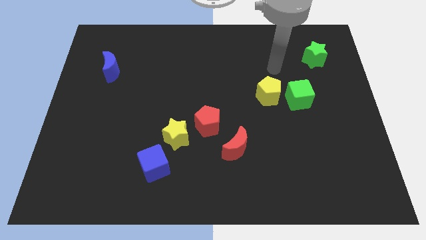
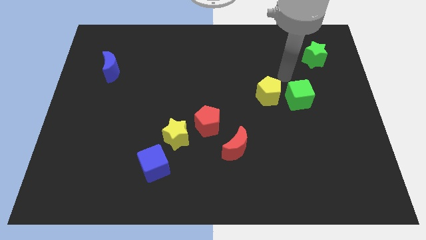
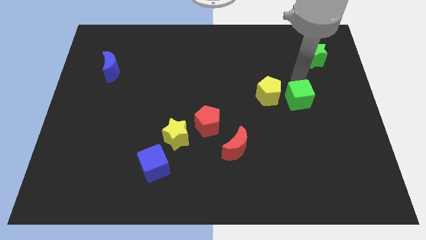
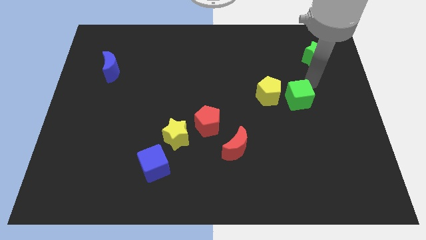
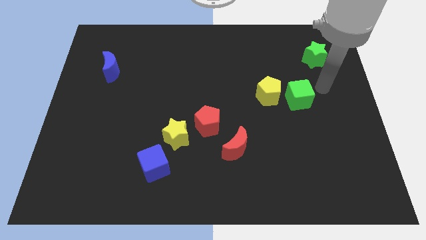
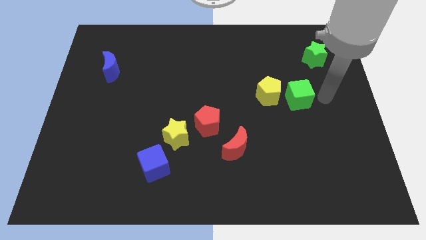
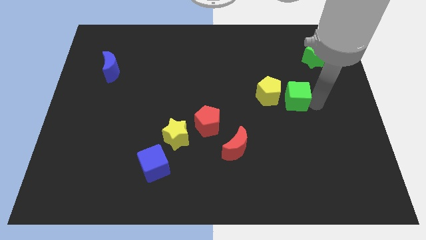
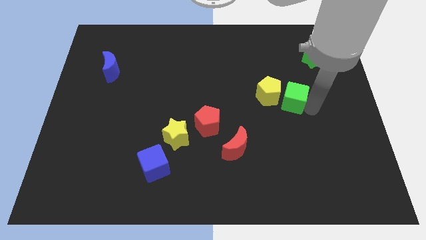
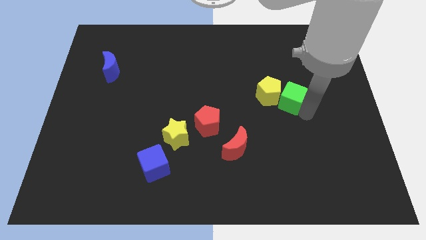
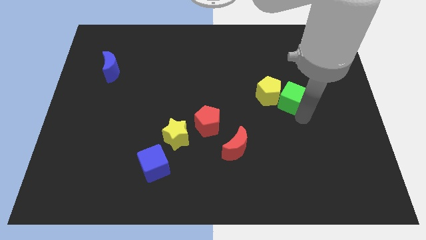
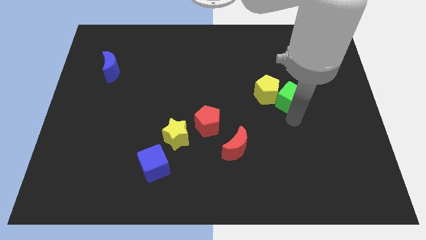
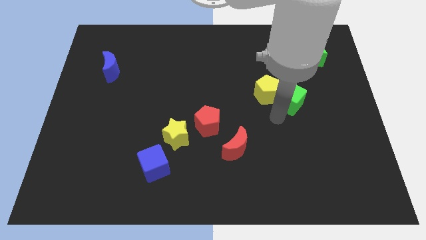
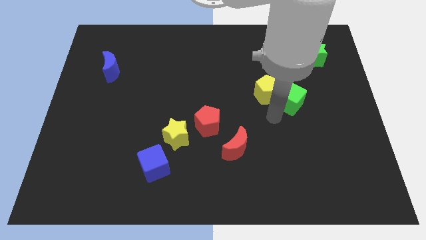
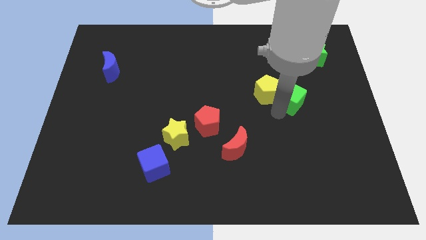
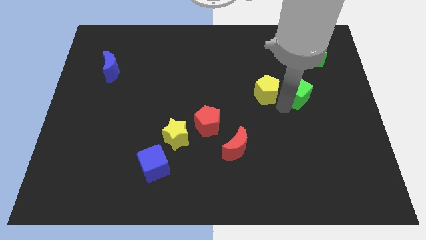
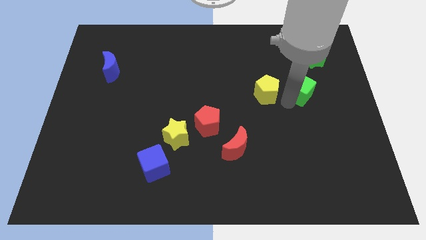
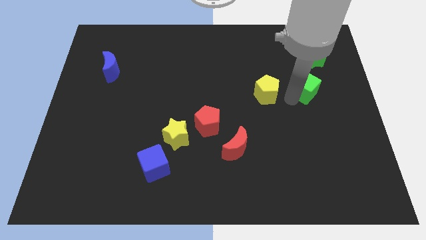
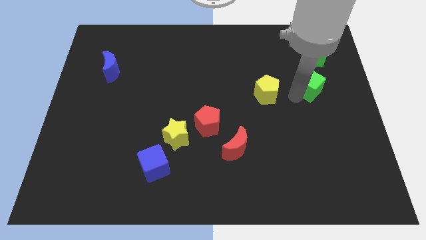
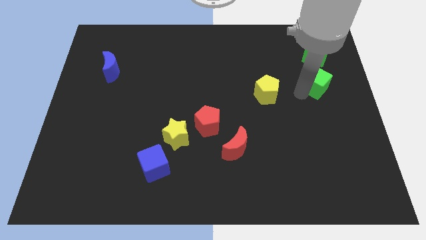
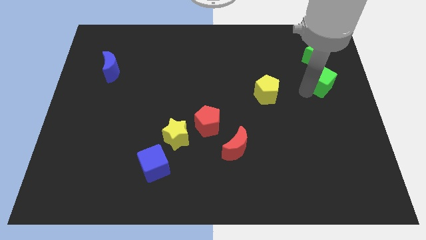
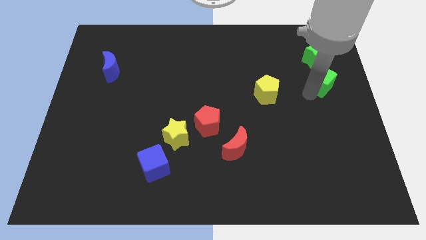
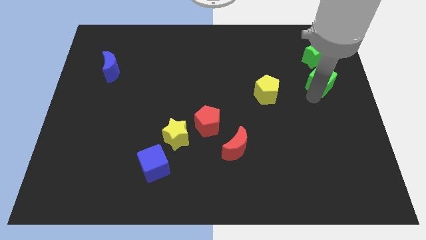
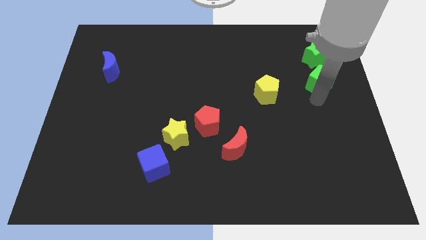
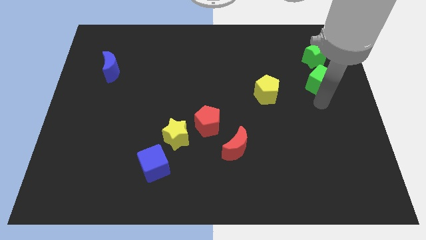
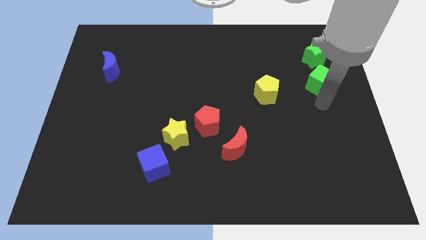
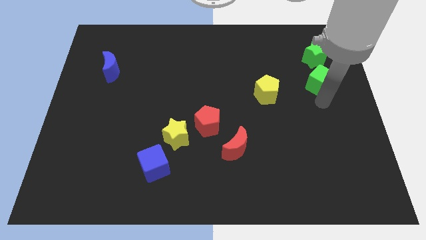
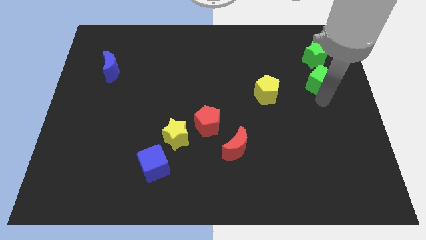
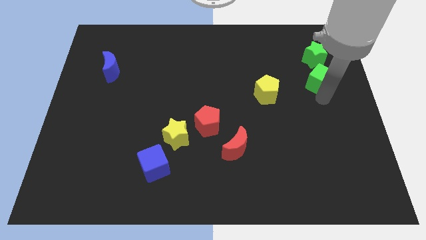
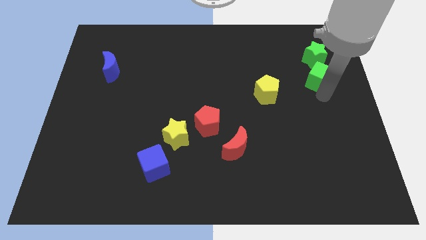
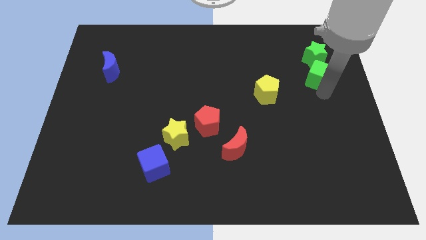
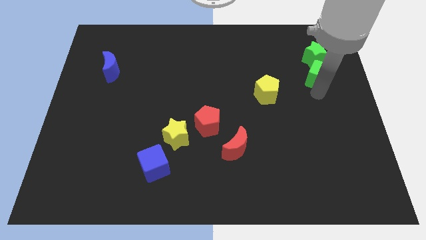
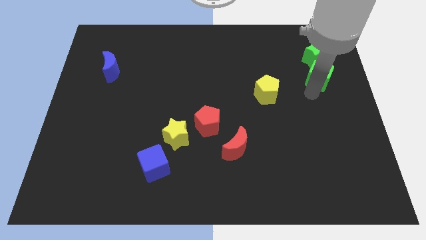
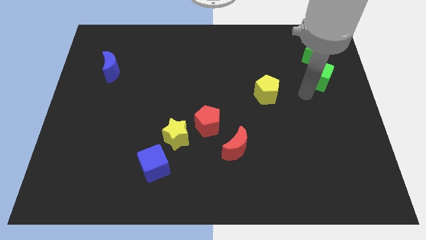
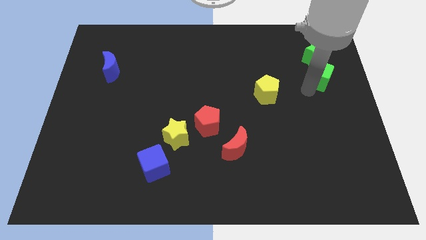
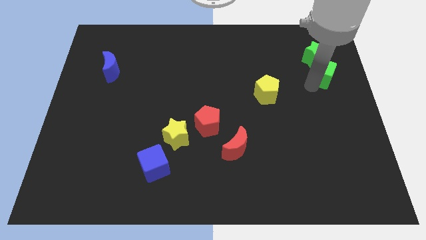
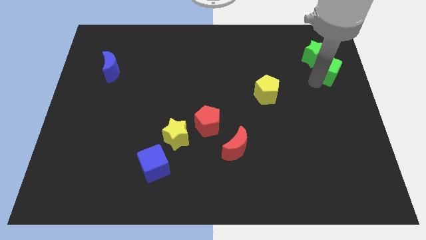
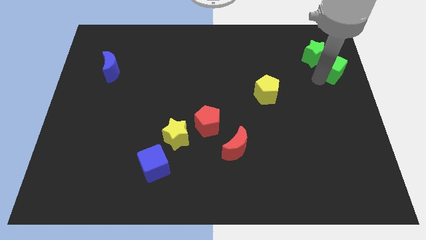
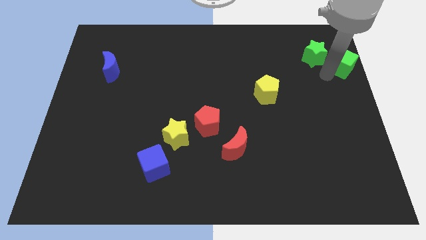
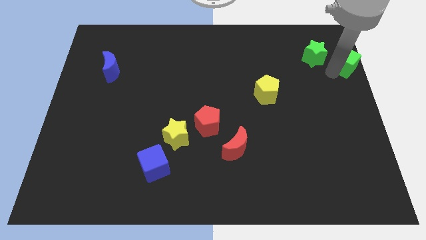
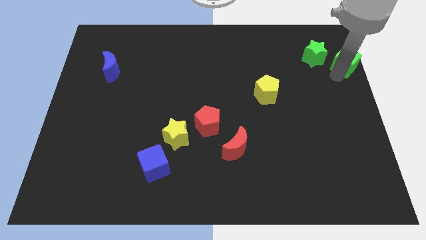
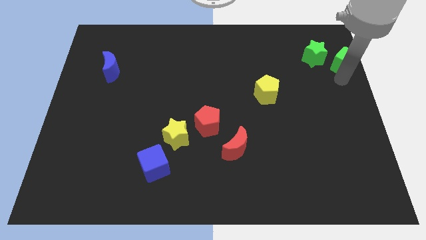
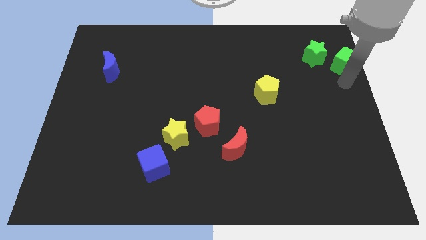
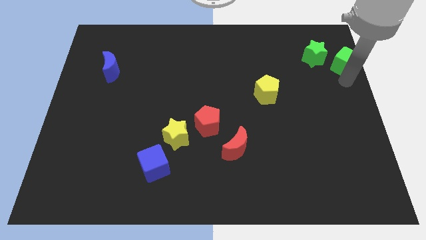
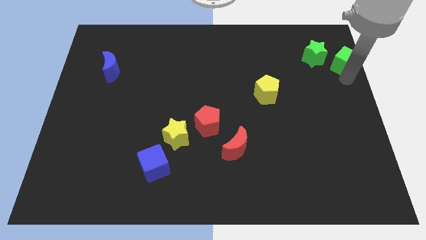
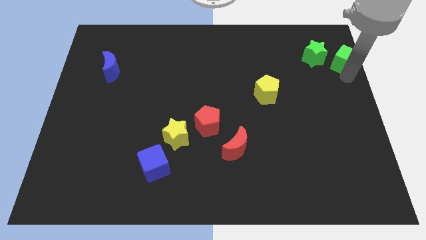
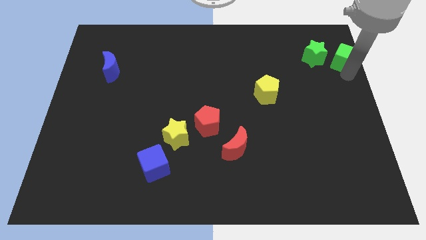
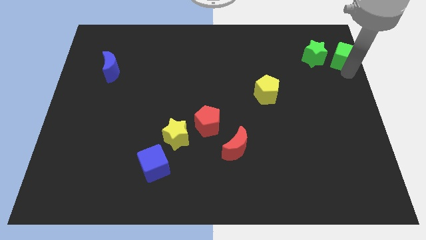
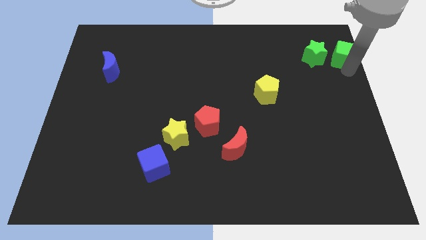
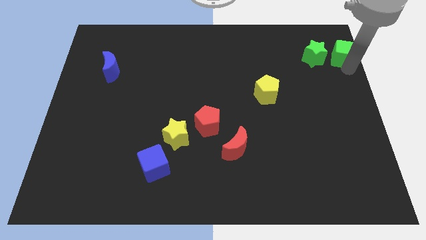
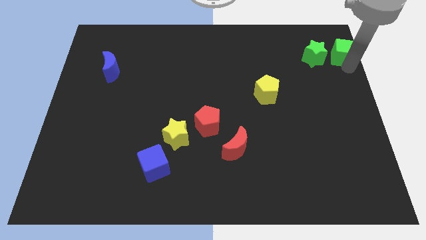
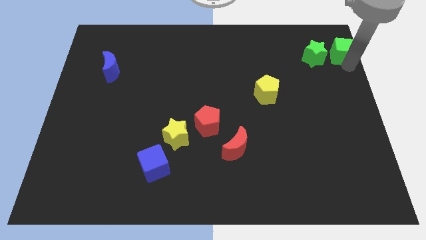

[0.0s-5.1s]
move the green cube to the top right

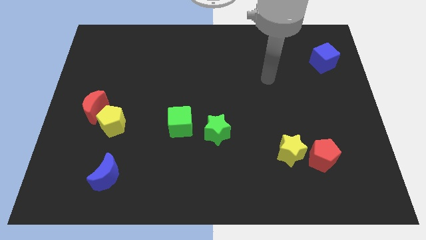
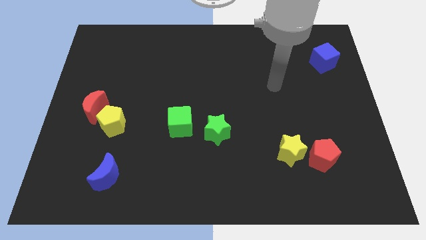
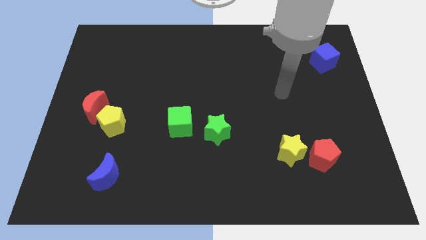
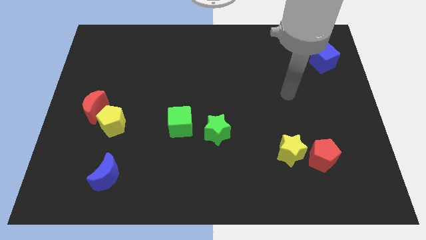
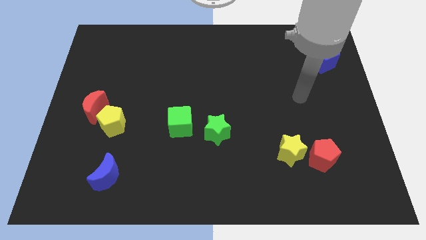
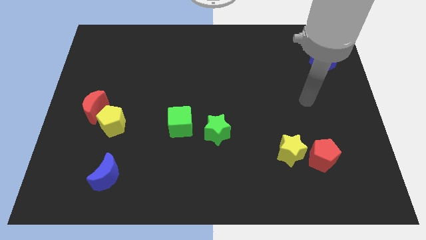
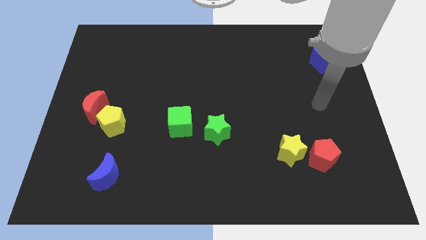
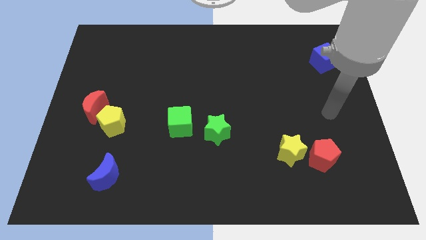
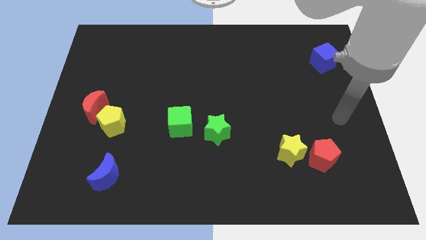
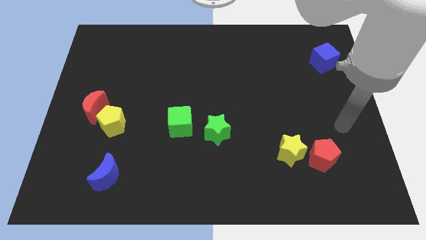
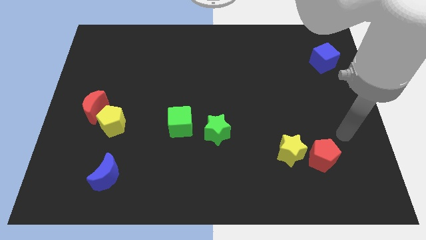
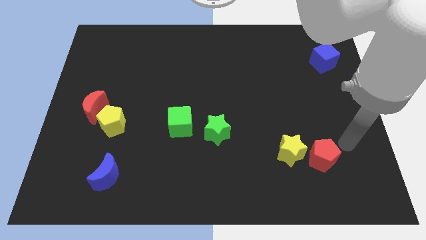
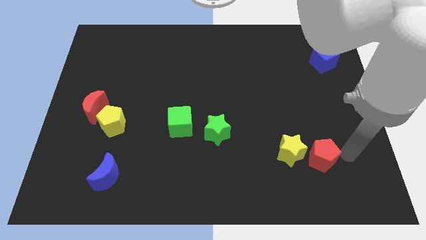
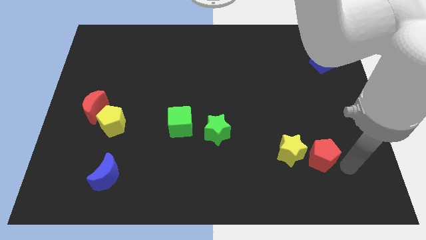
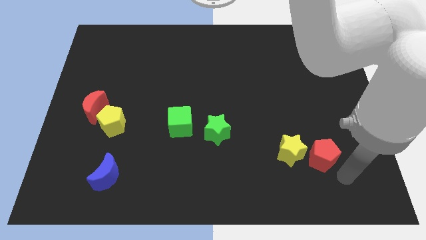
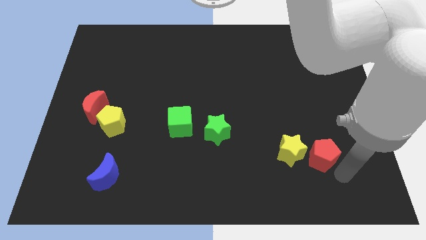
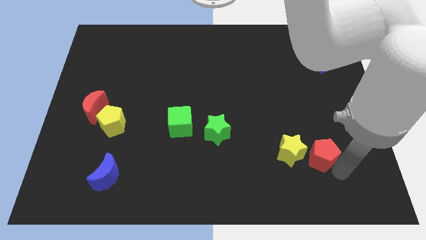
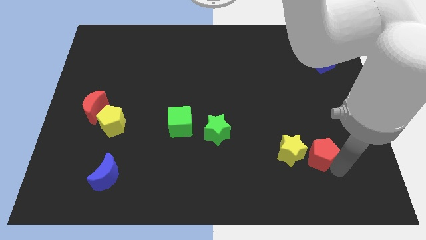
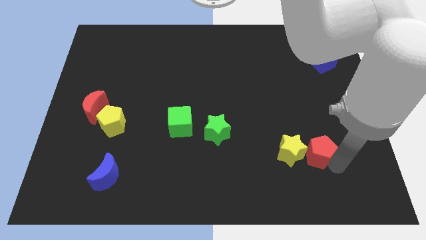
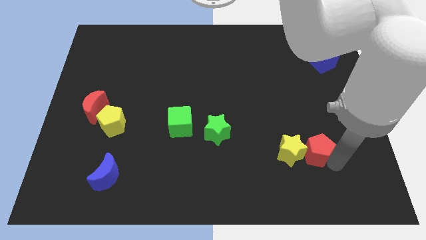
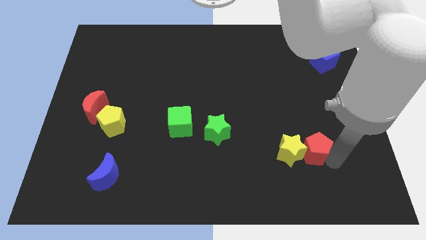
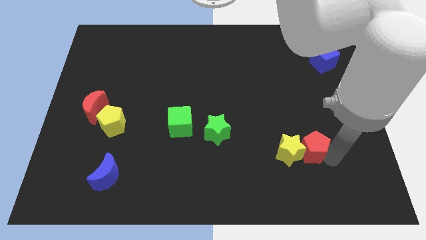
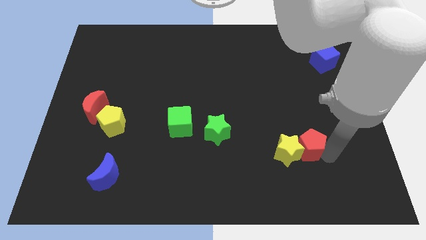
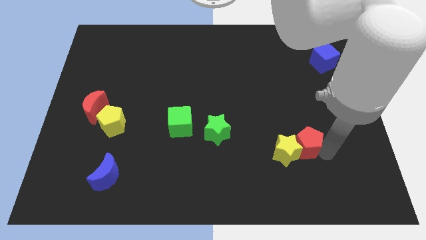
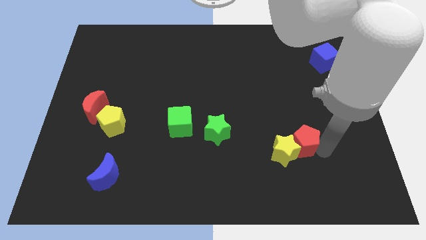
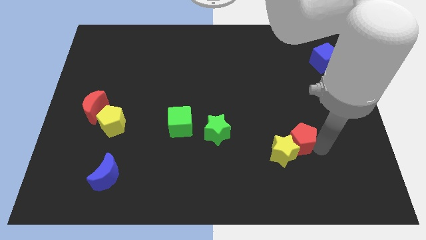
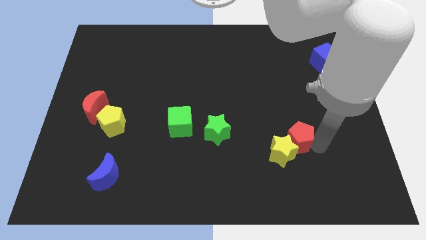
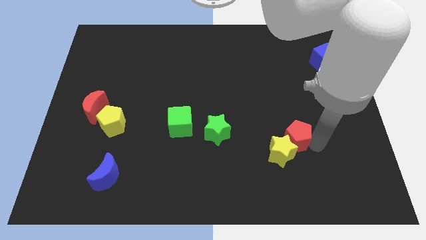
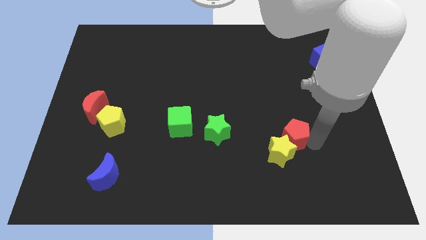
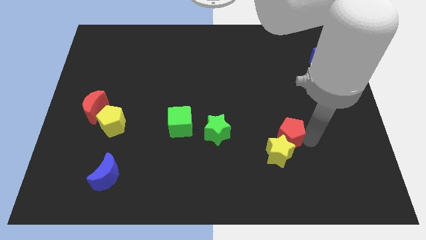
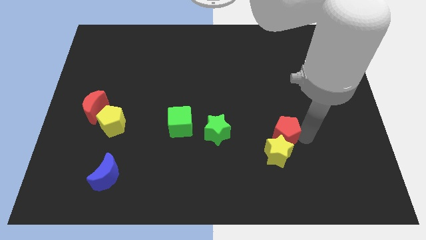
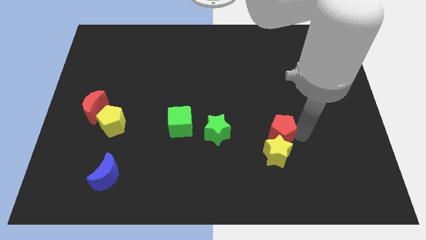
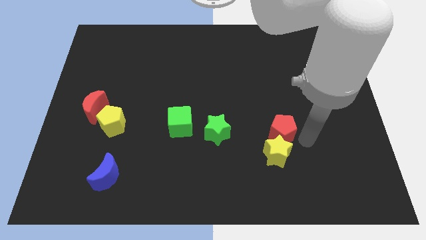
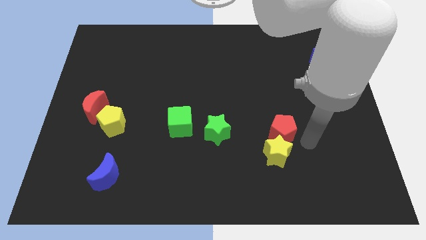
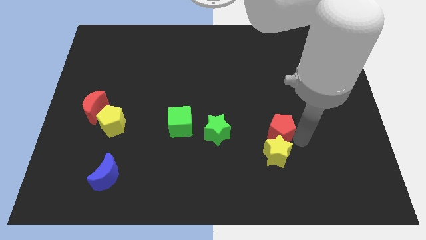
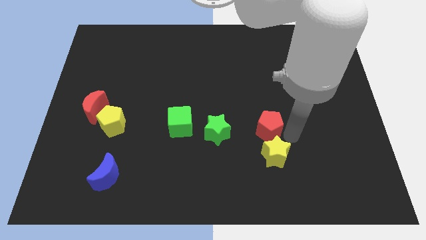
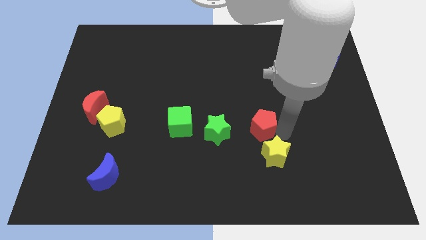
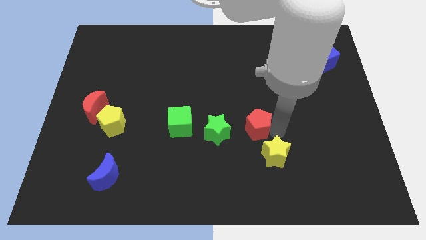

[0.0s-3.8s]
slide the red pentagon to the middle of the board
